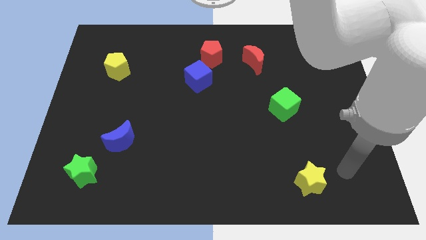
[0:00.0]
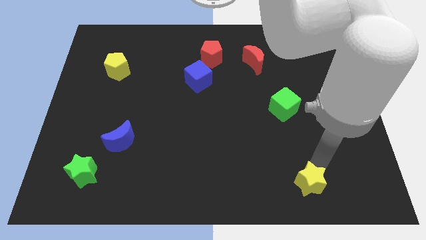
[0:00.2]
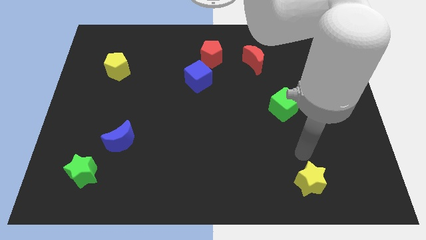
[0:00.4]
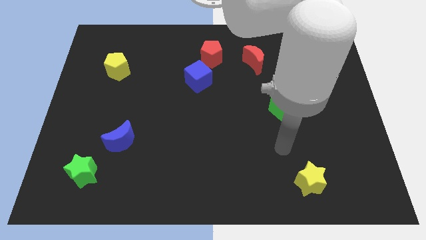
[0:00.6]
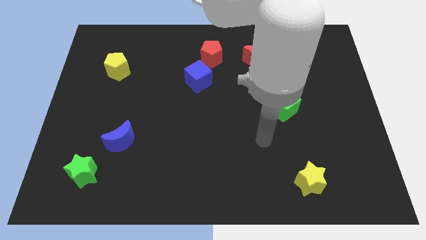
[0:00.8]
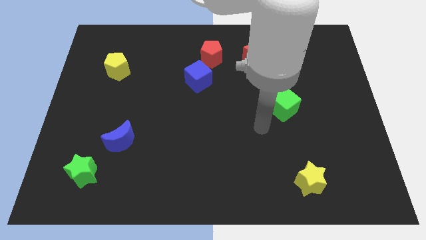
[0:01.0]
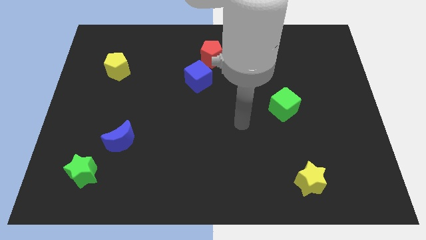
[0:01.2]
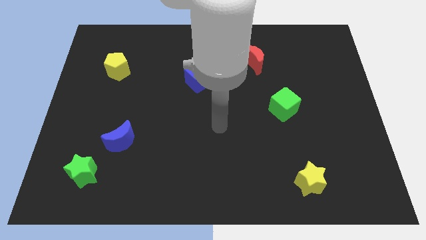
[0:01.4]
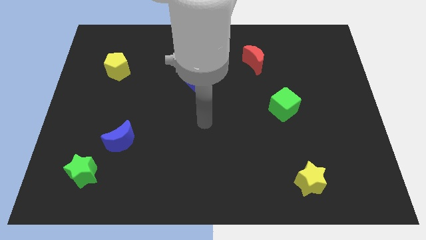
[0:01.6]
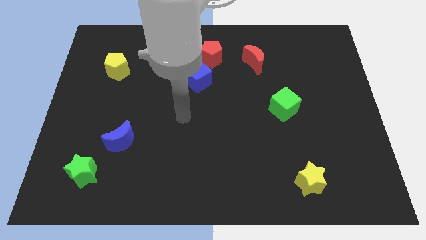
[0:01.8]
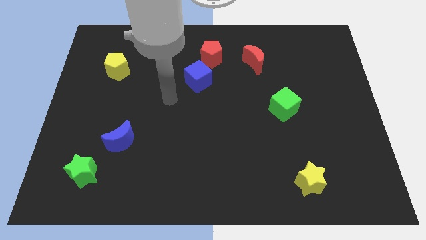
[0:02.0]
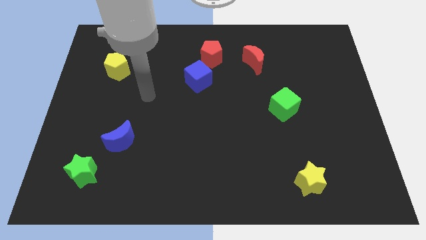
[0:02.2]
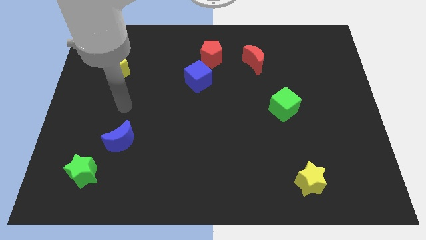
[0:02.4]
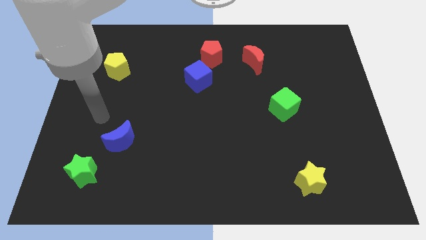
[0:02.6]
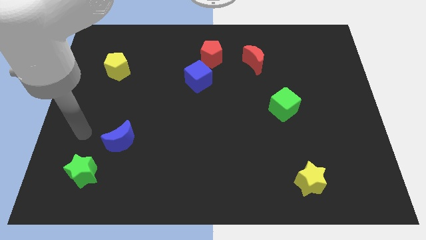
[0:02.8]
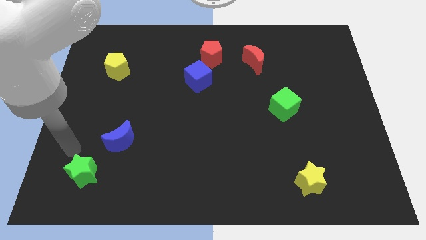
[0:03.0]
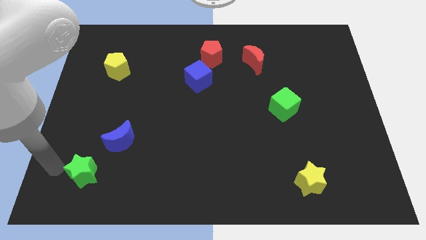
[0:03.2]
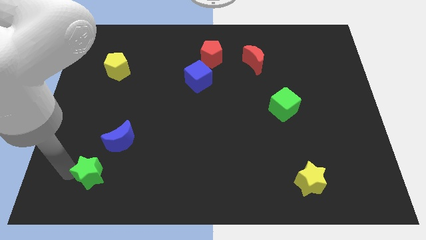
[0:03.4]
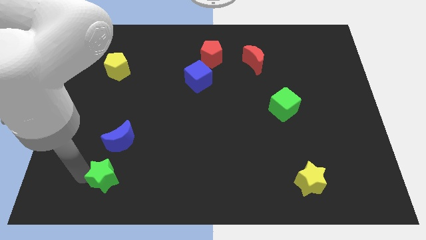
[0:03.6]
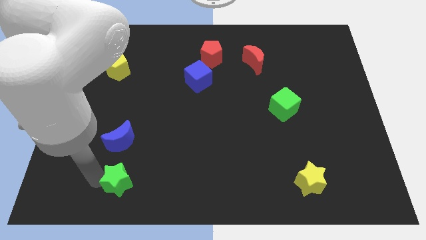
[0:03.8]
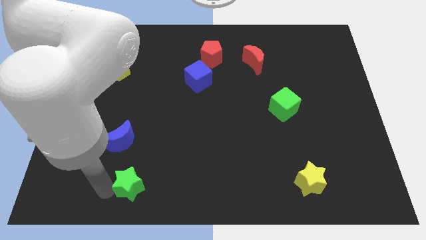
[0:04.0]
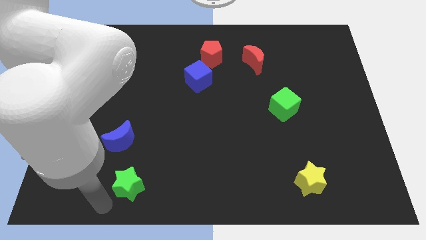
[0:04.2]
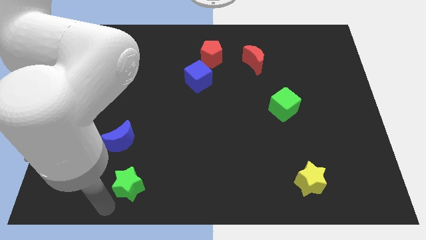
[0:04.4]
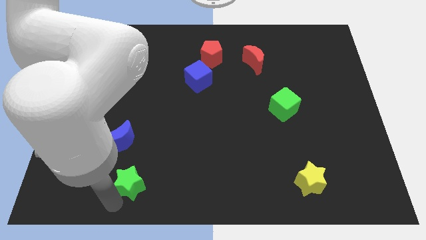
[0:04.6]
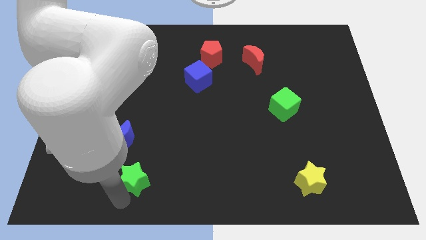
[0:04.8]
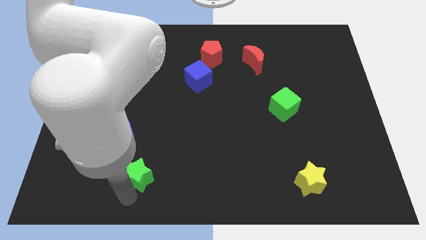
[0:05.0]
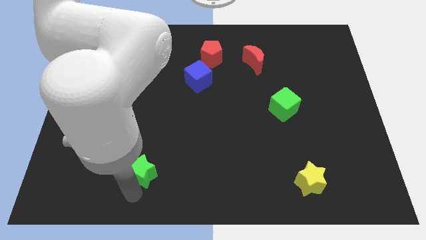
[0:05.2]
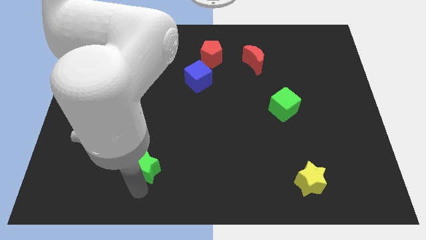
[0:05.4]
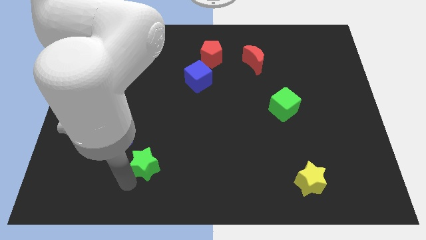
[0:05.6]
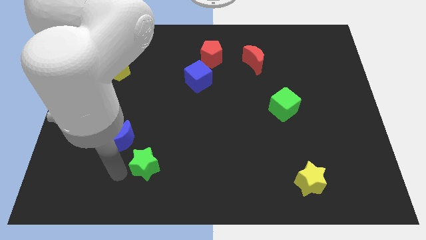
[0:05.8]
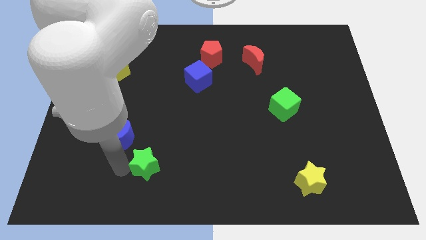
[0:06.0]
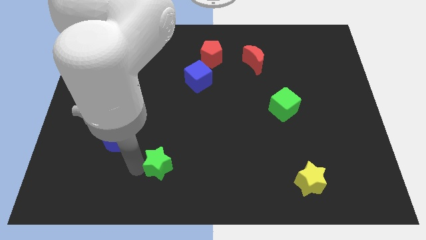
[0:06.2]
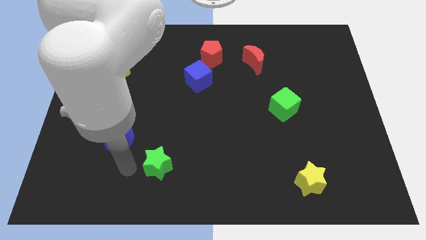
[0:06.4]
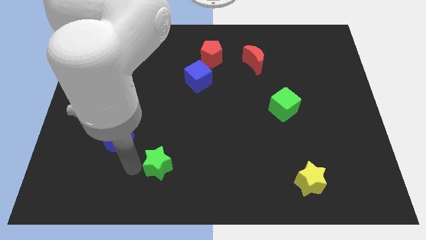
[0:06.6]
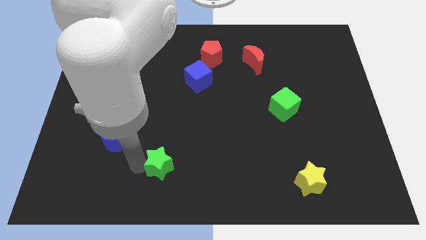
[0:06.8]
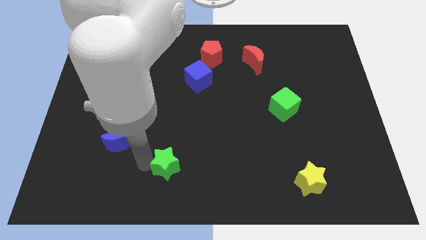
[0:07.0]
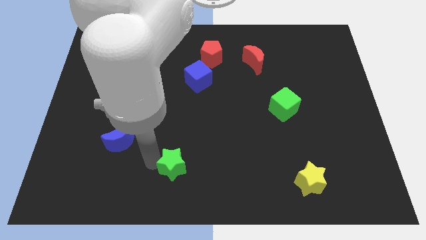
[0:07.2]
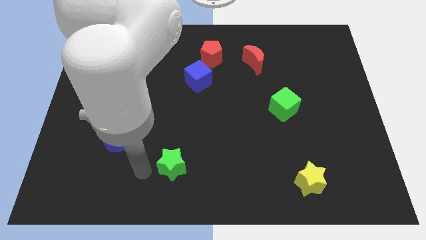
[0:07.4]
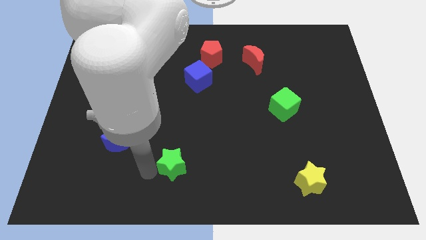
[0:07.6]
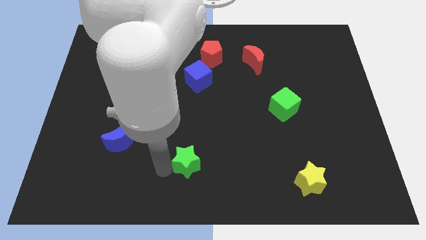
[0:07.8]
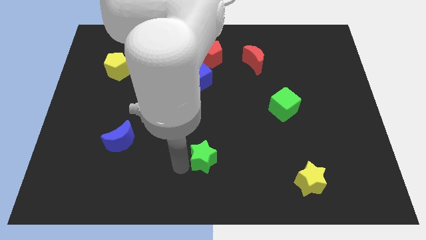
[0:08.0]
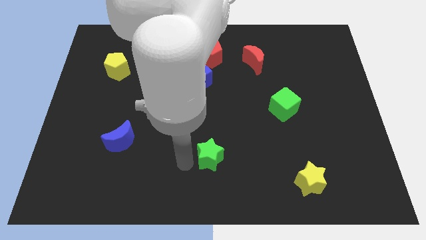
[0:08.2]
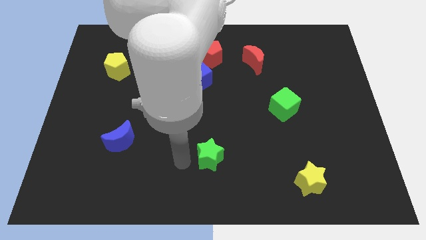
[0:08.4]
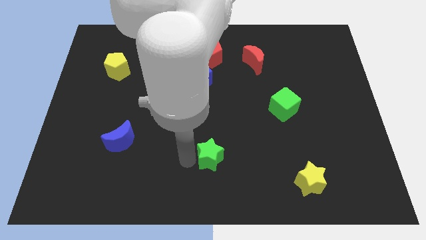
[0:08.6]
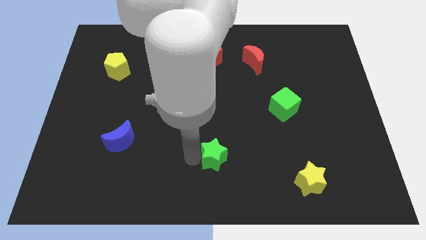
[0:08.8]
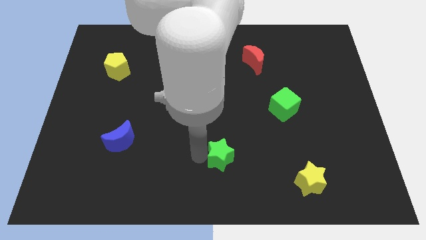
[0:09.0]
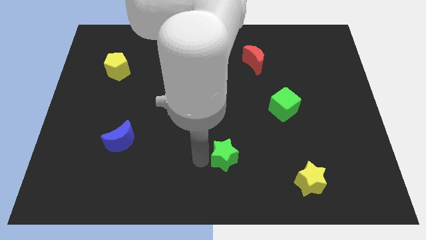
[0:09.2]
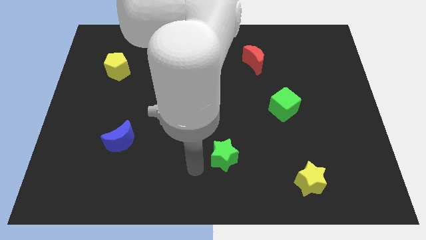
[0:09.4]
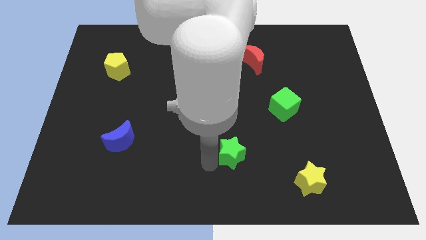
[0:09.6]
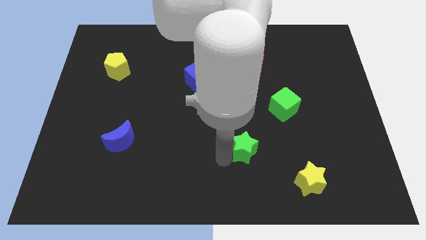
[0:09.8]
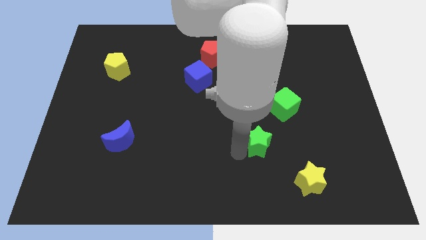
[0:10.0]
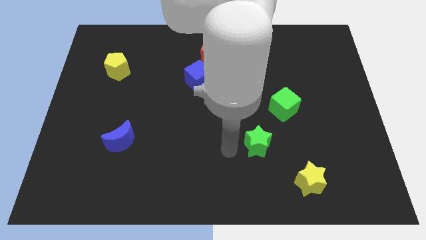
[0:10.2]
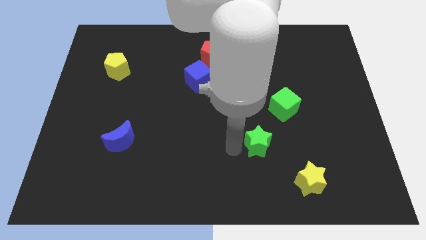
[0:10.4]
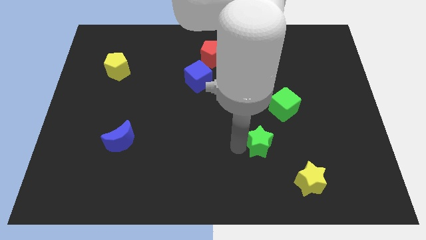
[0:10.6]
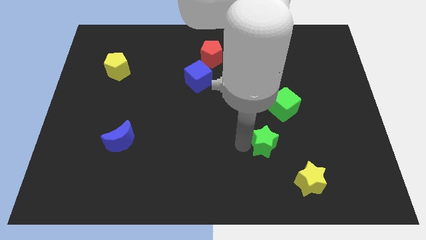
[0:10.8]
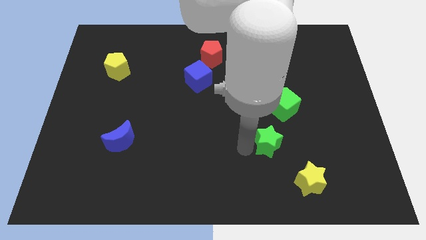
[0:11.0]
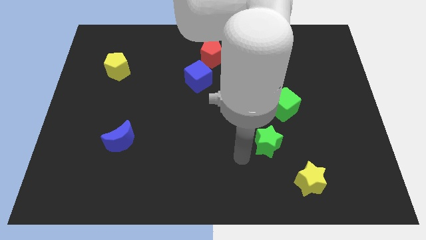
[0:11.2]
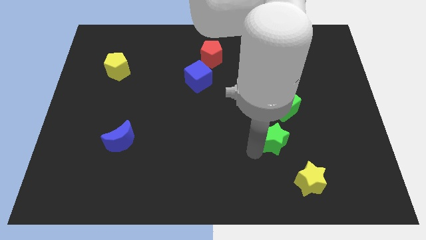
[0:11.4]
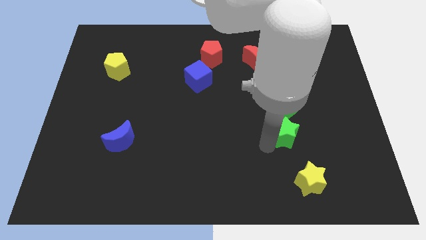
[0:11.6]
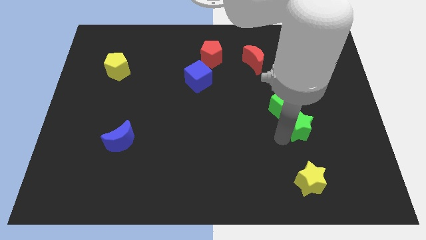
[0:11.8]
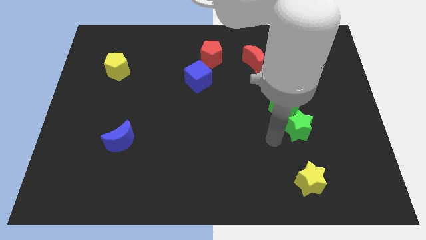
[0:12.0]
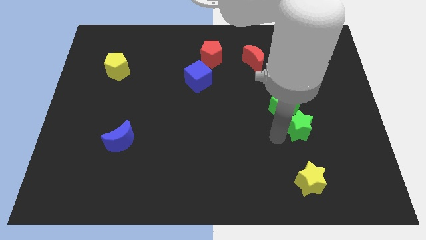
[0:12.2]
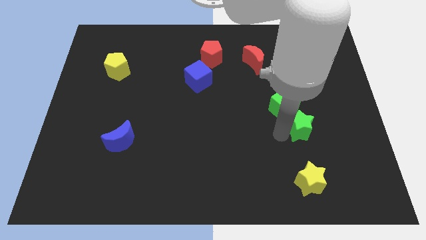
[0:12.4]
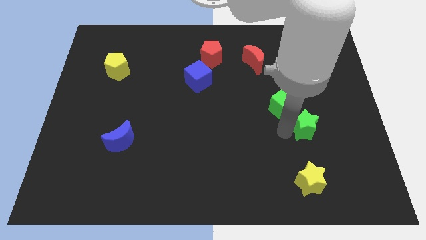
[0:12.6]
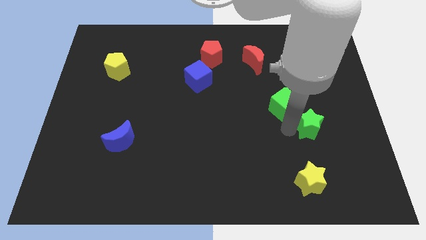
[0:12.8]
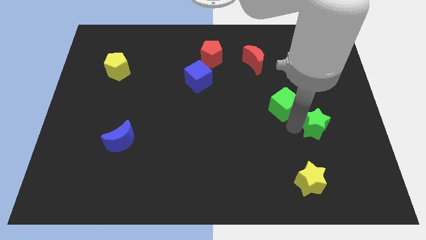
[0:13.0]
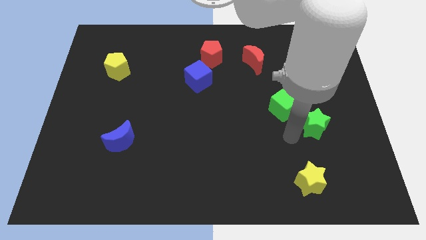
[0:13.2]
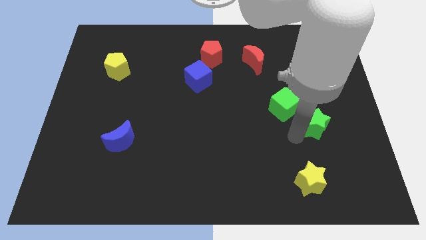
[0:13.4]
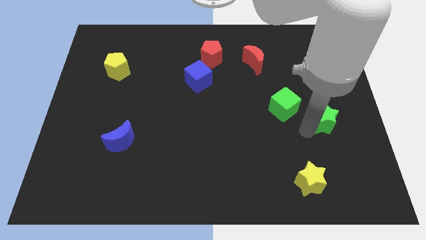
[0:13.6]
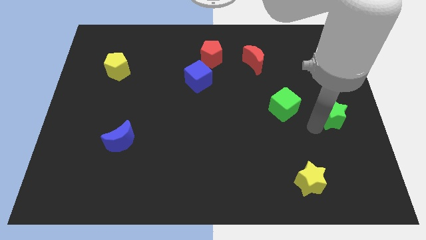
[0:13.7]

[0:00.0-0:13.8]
push the green star to the right side
